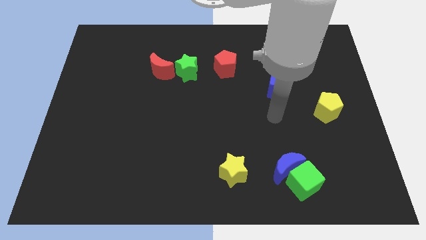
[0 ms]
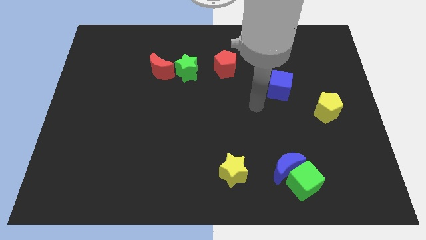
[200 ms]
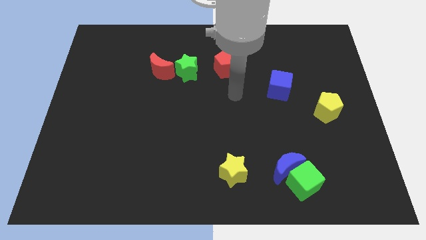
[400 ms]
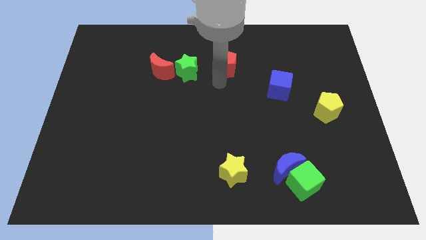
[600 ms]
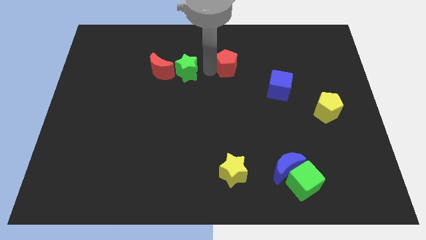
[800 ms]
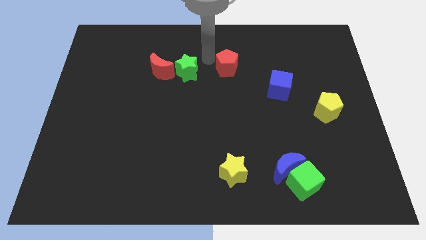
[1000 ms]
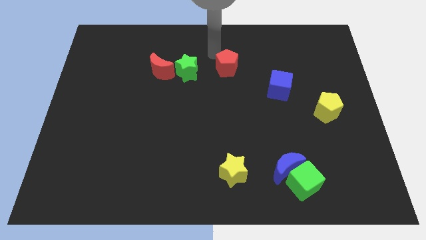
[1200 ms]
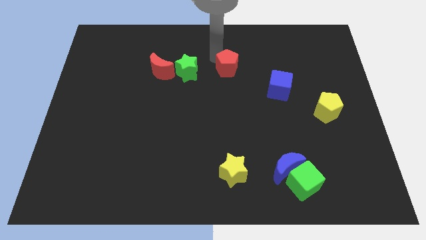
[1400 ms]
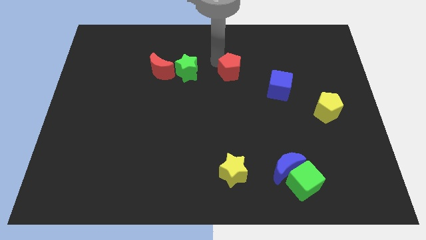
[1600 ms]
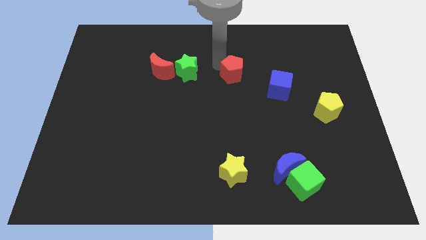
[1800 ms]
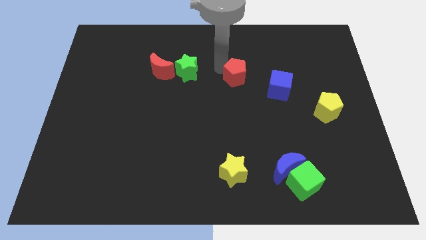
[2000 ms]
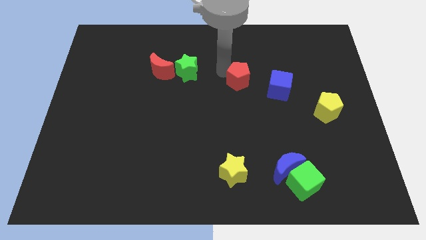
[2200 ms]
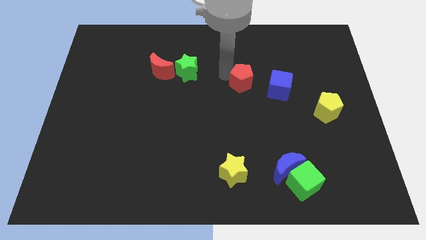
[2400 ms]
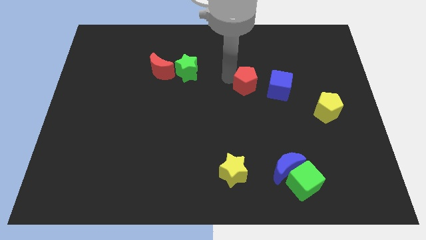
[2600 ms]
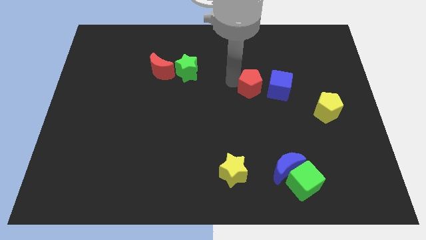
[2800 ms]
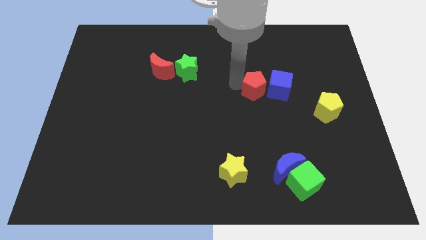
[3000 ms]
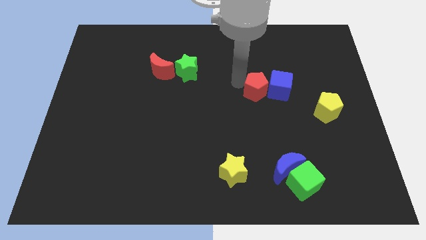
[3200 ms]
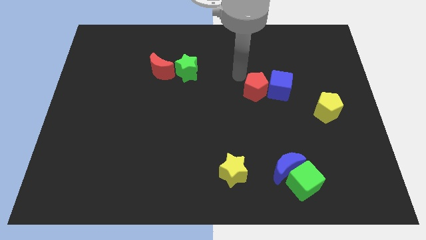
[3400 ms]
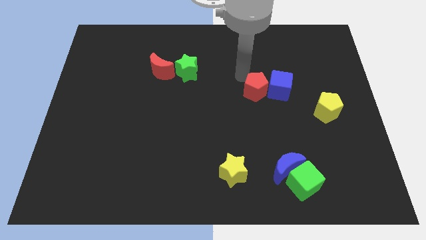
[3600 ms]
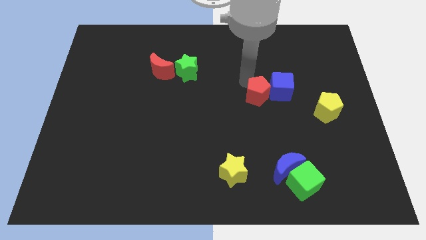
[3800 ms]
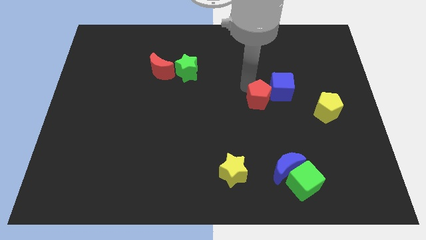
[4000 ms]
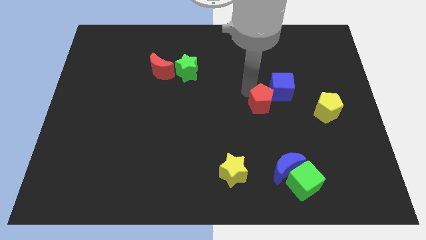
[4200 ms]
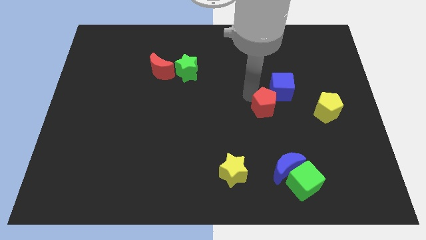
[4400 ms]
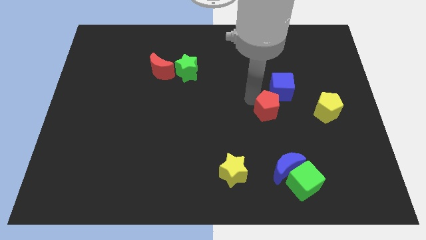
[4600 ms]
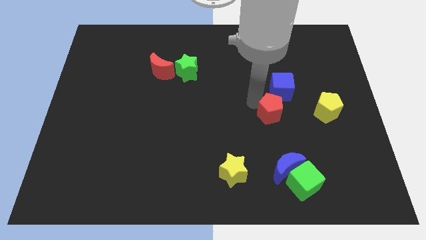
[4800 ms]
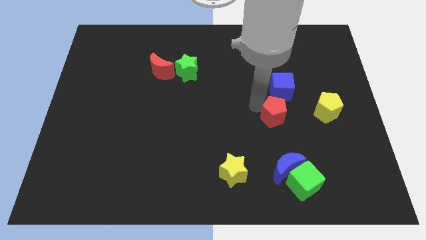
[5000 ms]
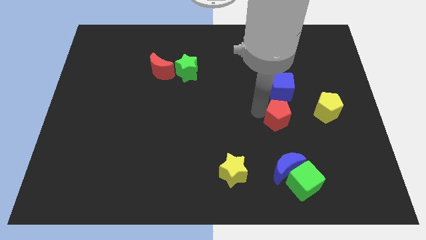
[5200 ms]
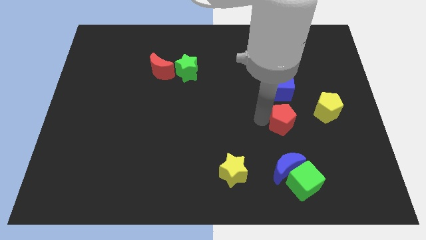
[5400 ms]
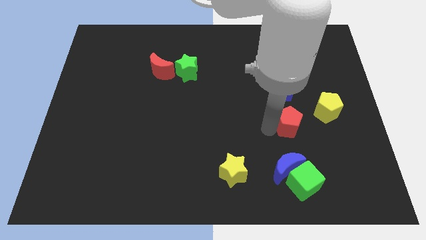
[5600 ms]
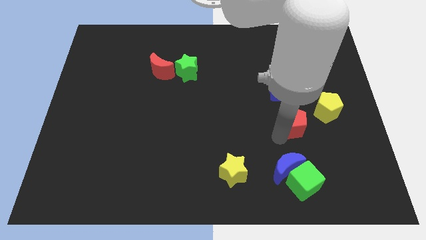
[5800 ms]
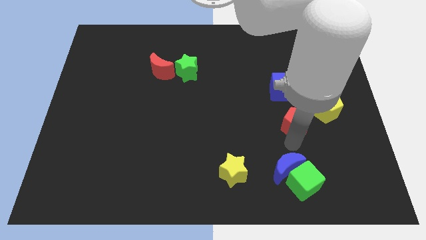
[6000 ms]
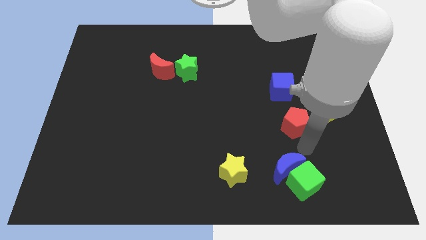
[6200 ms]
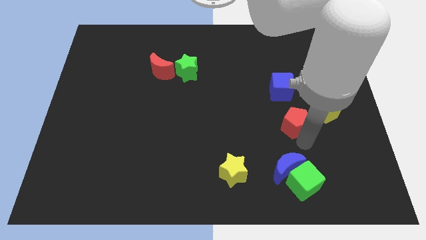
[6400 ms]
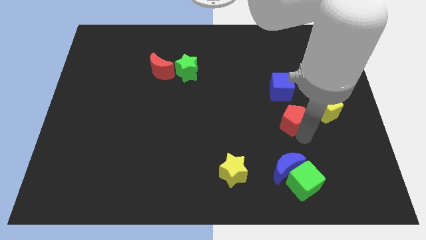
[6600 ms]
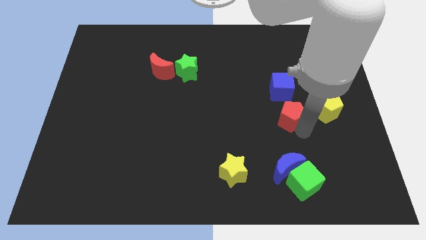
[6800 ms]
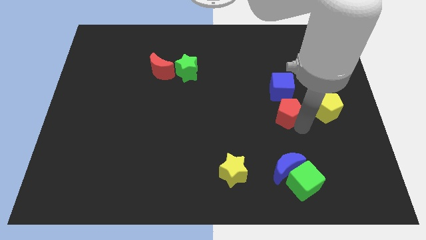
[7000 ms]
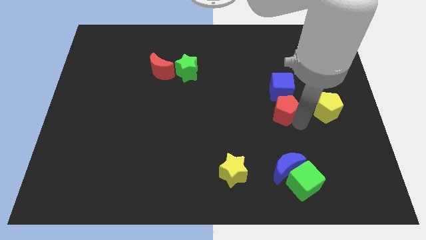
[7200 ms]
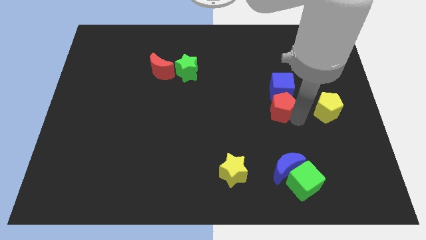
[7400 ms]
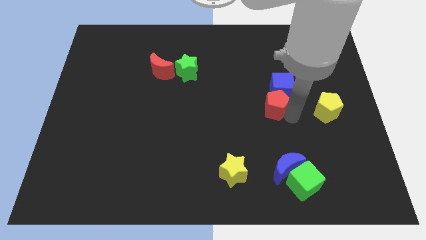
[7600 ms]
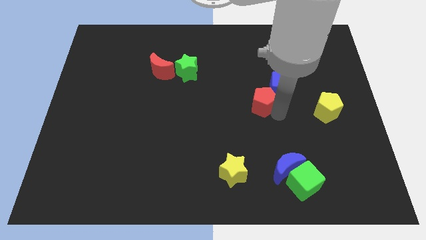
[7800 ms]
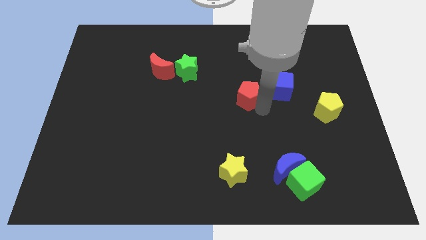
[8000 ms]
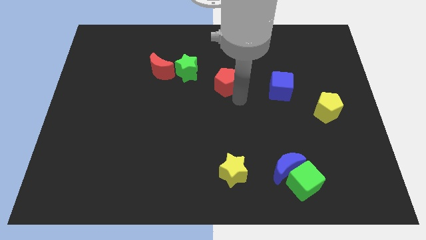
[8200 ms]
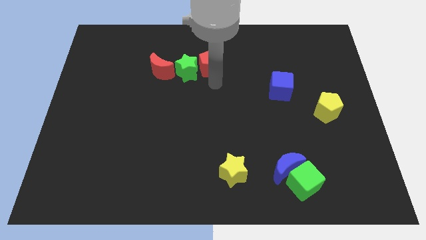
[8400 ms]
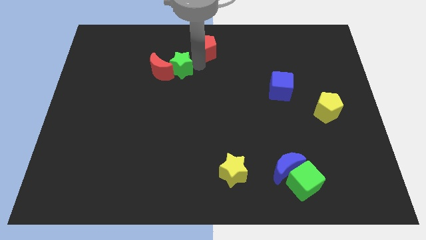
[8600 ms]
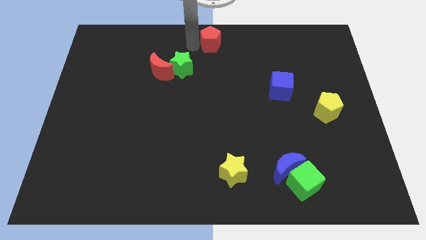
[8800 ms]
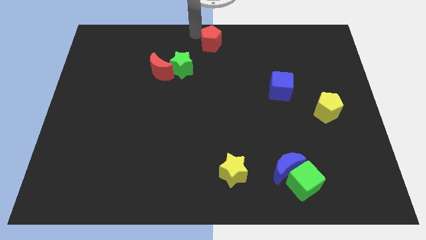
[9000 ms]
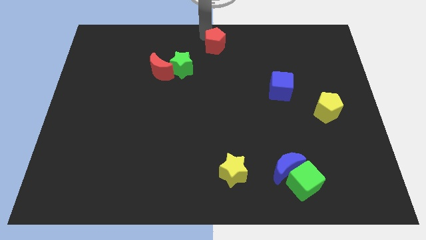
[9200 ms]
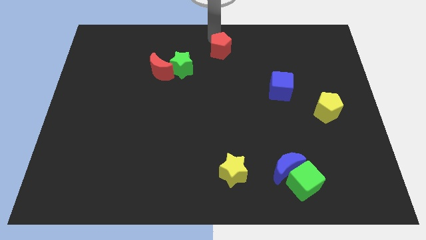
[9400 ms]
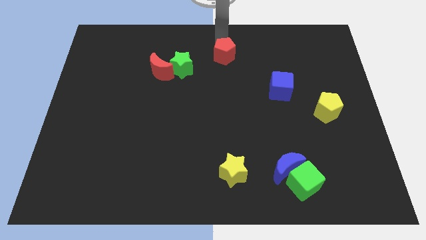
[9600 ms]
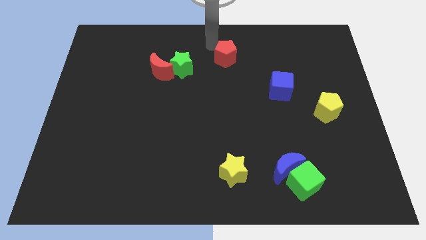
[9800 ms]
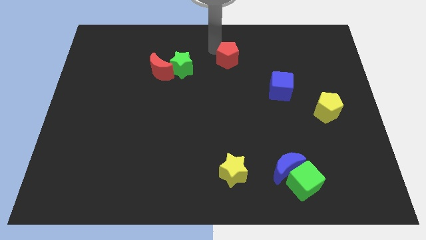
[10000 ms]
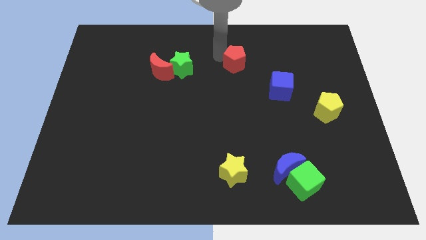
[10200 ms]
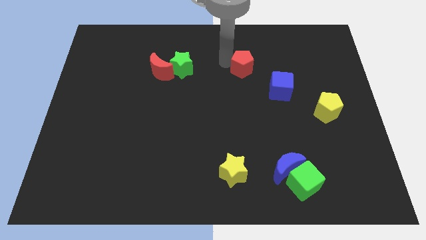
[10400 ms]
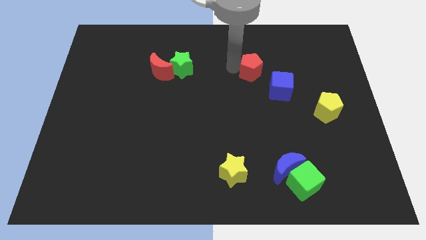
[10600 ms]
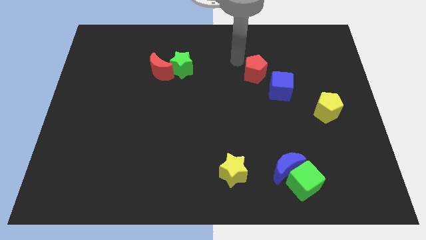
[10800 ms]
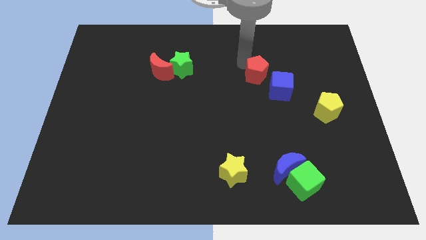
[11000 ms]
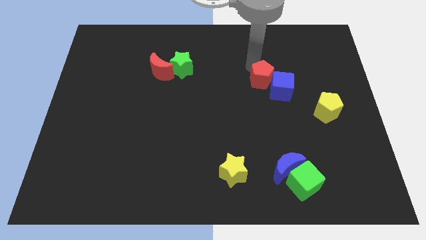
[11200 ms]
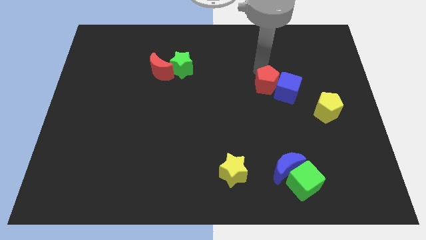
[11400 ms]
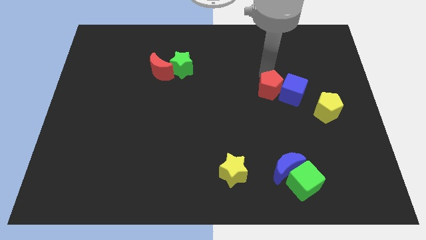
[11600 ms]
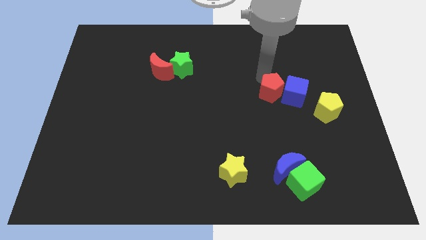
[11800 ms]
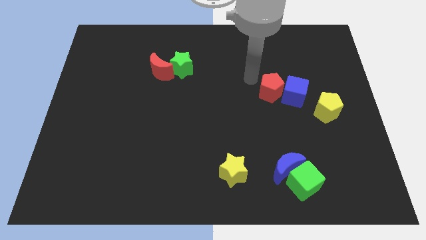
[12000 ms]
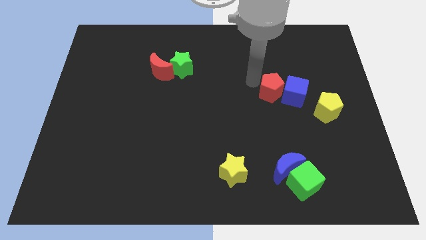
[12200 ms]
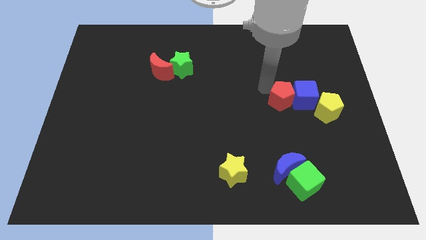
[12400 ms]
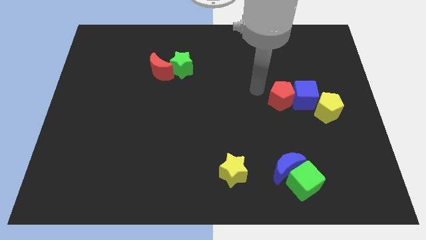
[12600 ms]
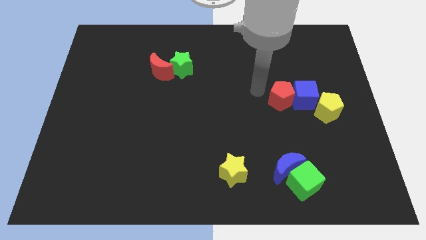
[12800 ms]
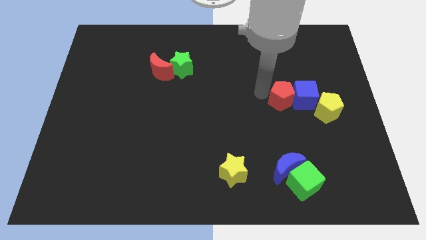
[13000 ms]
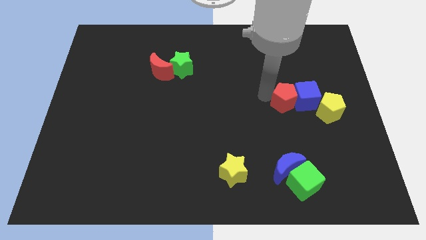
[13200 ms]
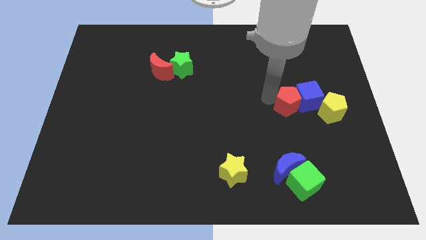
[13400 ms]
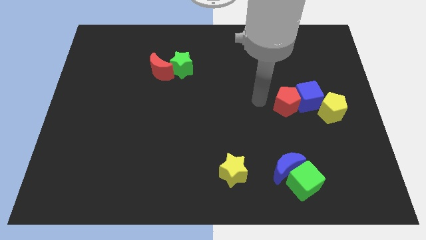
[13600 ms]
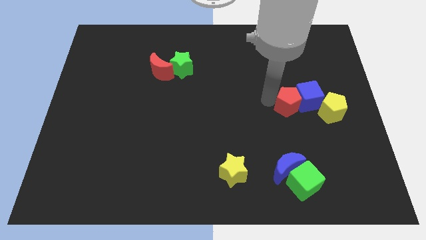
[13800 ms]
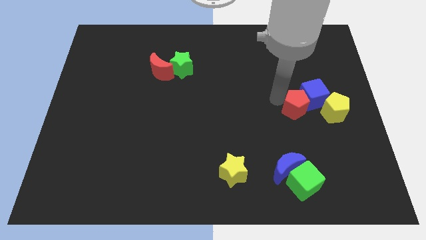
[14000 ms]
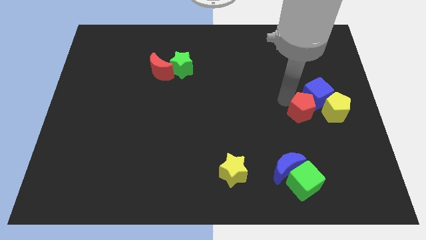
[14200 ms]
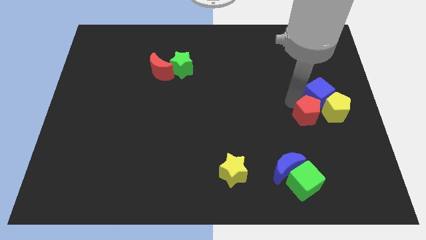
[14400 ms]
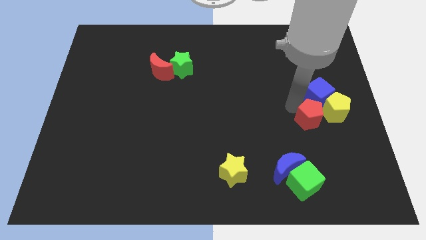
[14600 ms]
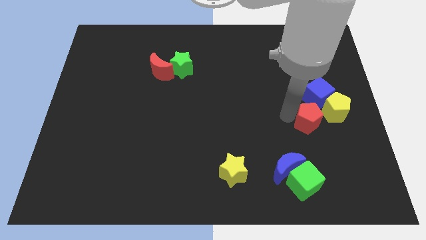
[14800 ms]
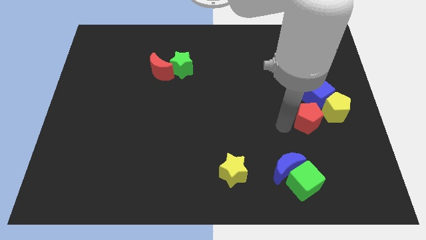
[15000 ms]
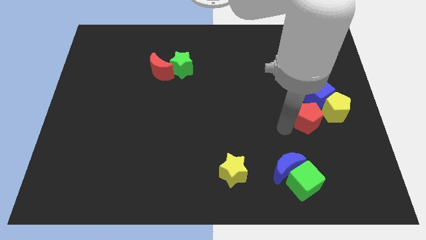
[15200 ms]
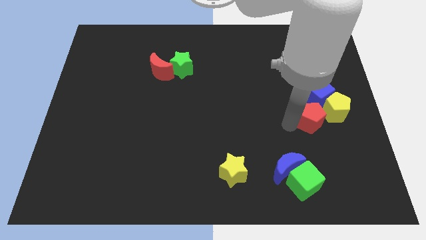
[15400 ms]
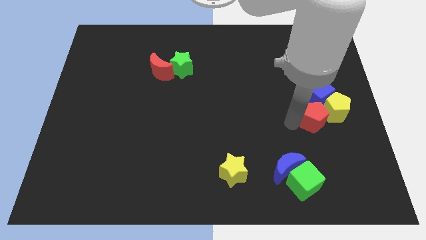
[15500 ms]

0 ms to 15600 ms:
move the red pentagon next to the yellow pentagon
